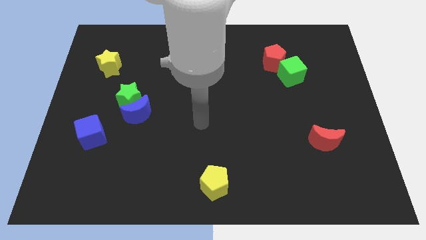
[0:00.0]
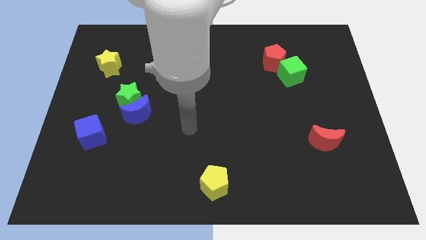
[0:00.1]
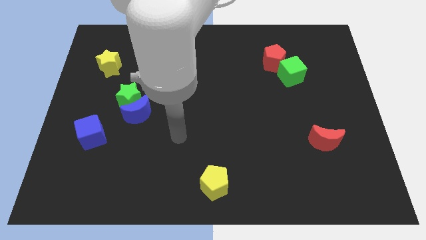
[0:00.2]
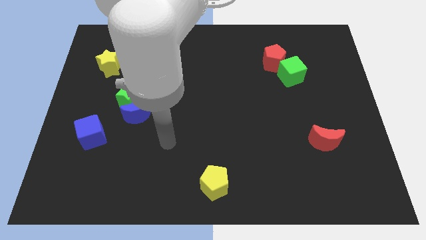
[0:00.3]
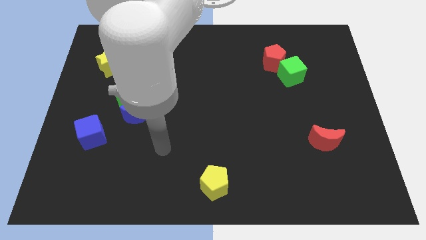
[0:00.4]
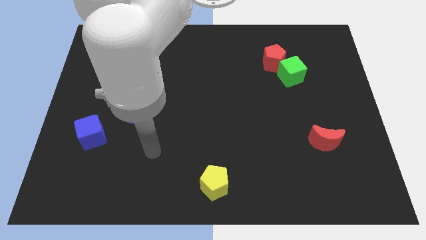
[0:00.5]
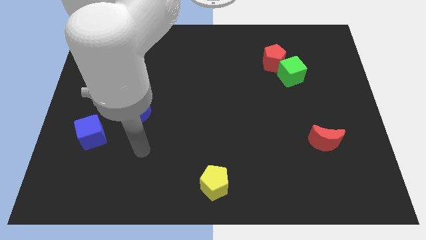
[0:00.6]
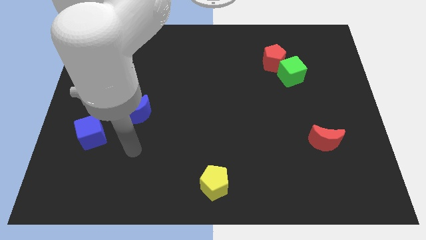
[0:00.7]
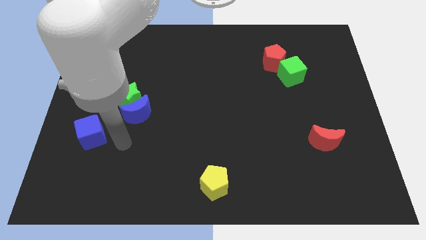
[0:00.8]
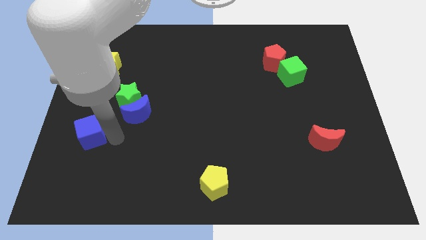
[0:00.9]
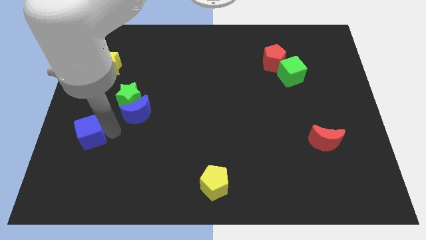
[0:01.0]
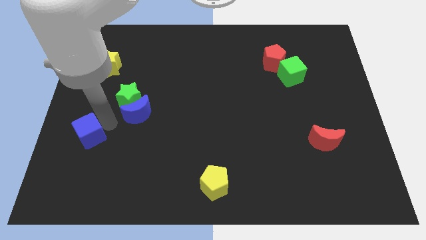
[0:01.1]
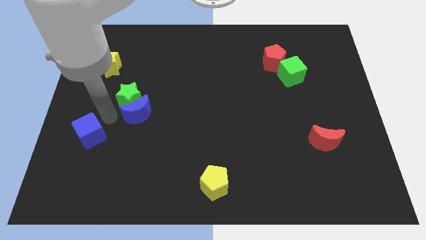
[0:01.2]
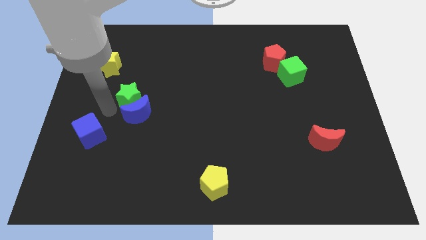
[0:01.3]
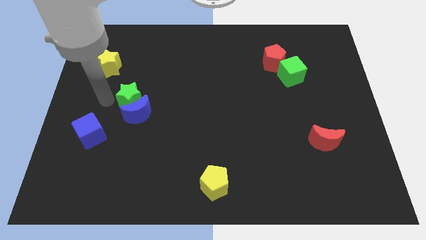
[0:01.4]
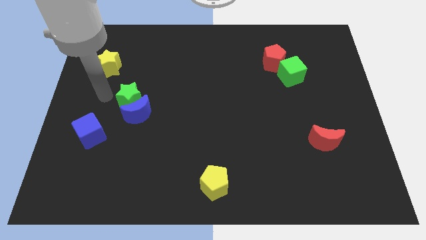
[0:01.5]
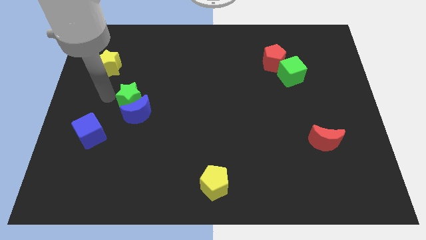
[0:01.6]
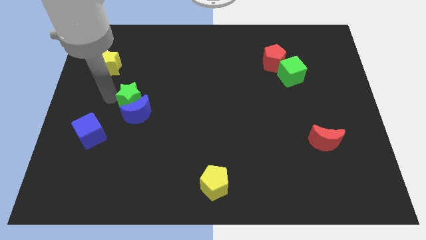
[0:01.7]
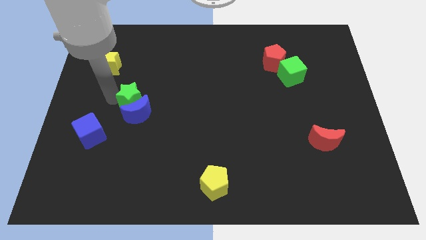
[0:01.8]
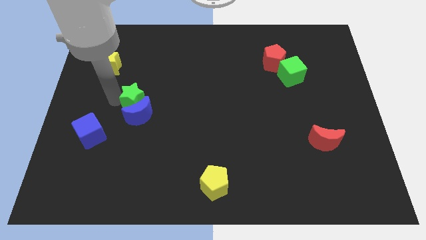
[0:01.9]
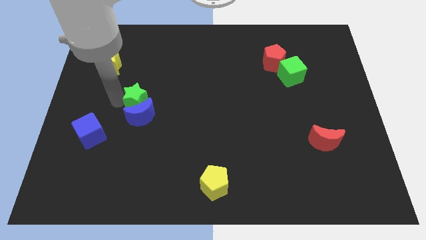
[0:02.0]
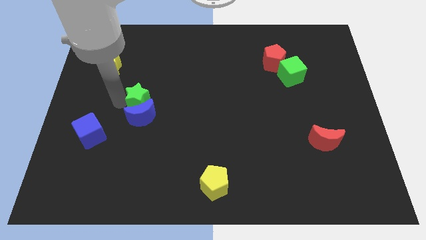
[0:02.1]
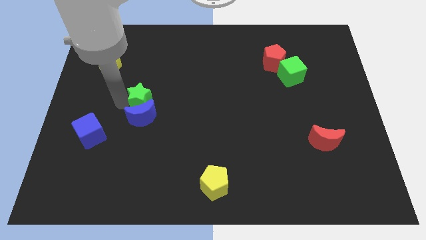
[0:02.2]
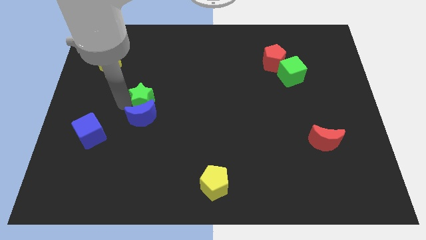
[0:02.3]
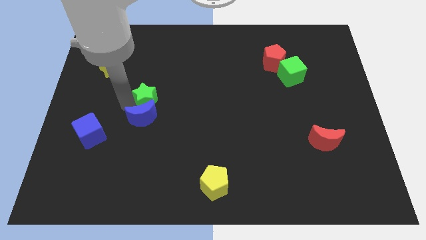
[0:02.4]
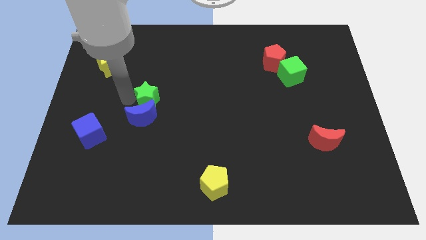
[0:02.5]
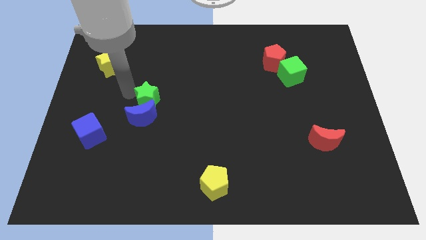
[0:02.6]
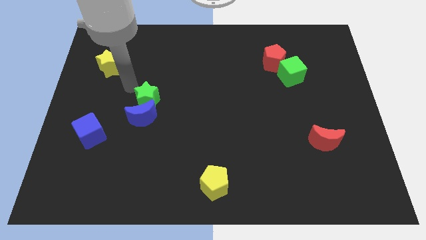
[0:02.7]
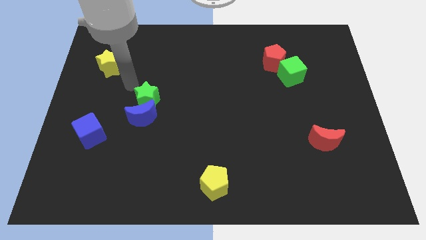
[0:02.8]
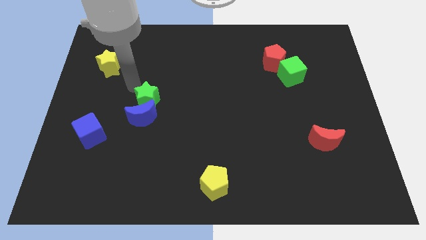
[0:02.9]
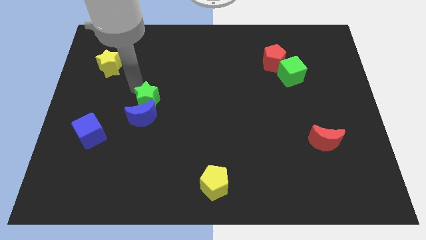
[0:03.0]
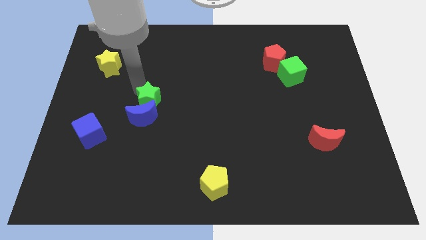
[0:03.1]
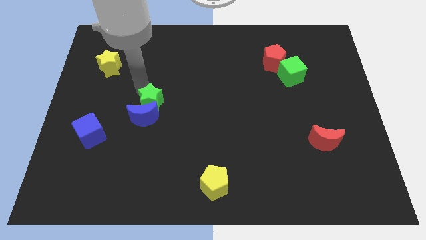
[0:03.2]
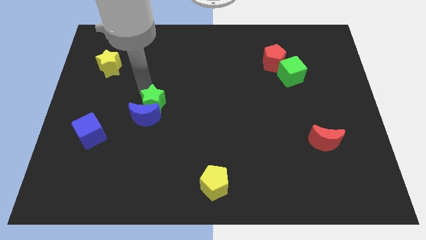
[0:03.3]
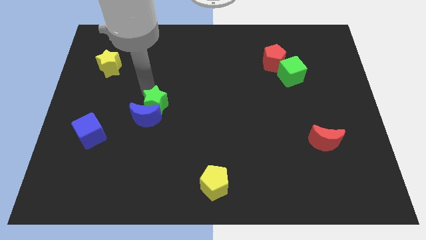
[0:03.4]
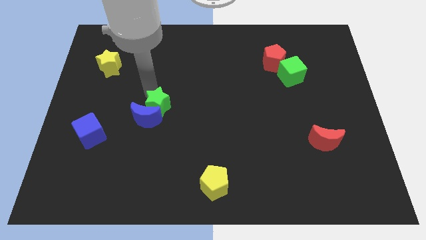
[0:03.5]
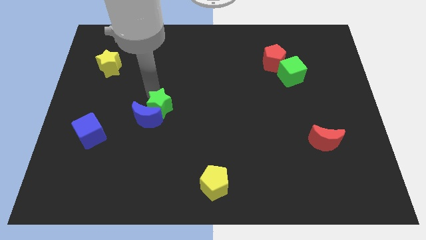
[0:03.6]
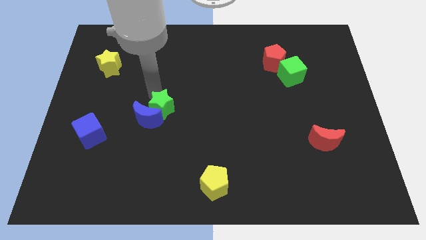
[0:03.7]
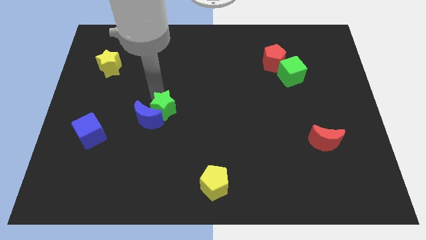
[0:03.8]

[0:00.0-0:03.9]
push the green star a little bit diagonally down and right

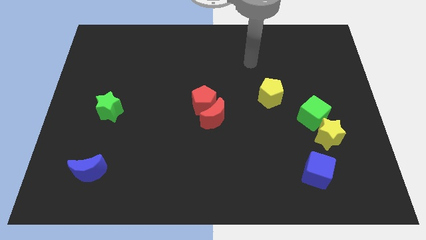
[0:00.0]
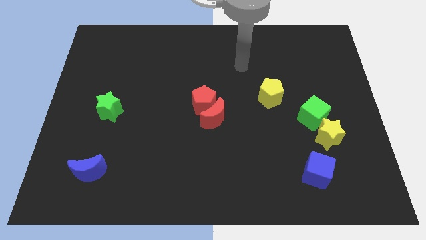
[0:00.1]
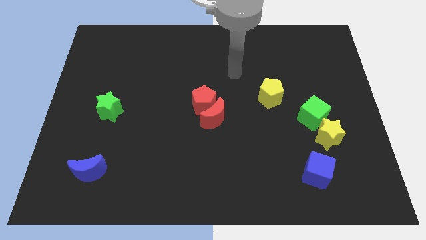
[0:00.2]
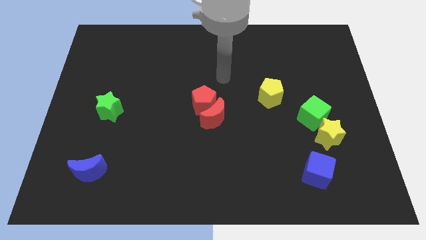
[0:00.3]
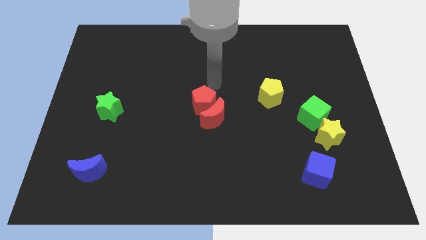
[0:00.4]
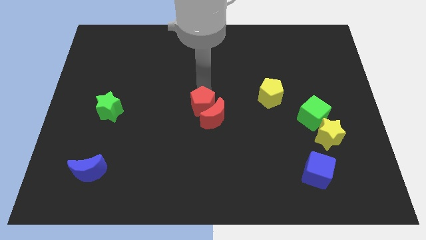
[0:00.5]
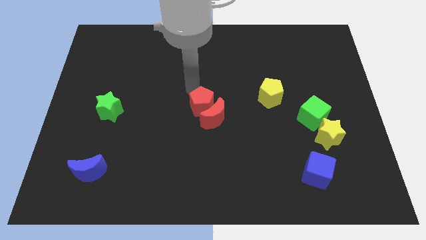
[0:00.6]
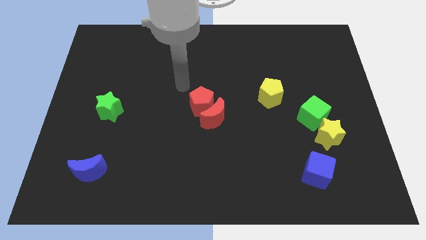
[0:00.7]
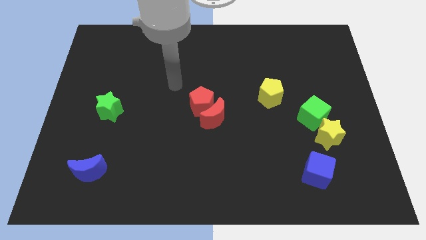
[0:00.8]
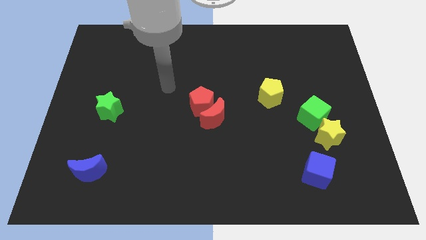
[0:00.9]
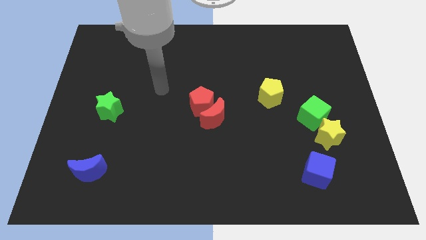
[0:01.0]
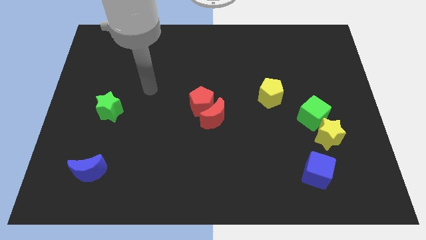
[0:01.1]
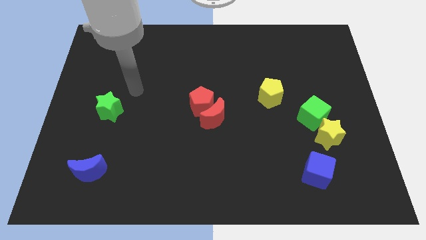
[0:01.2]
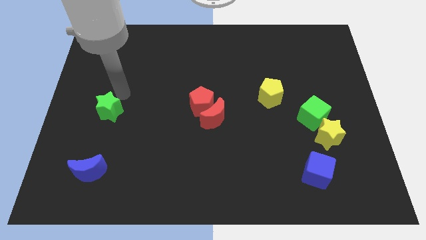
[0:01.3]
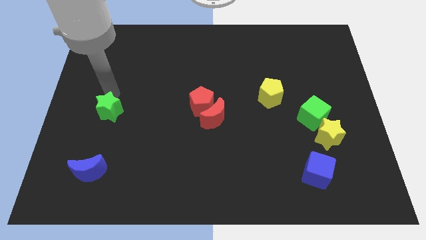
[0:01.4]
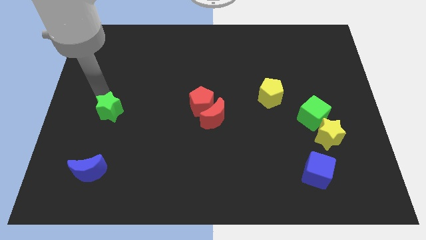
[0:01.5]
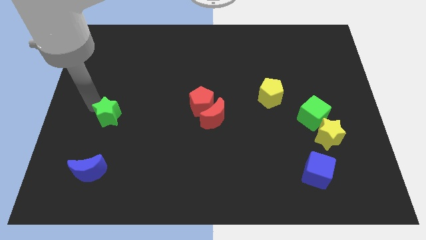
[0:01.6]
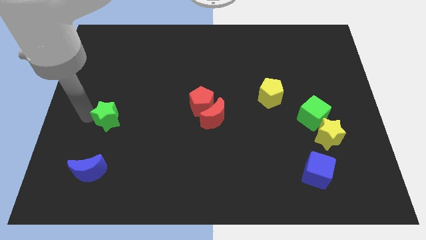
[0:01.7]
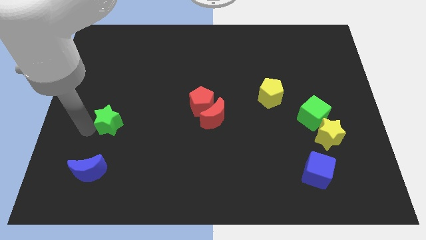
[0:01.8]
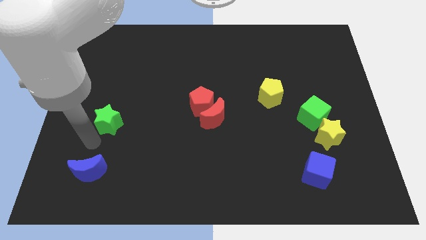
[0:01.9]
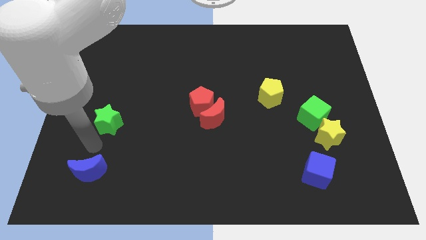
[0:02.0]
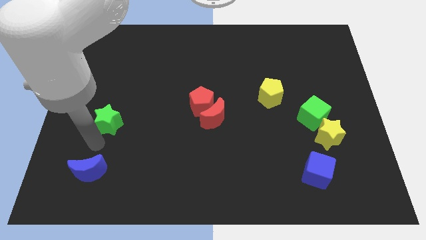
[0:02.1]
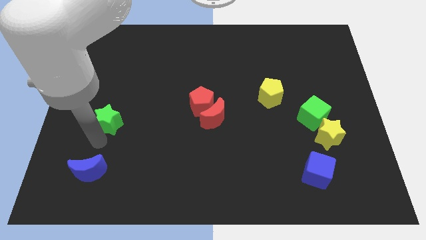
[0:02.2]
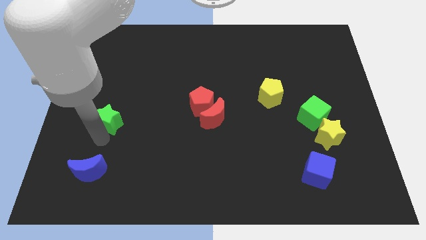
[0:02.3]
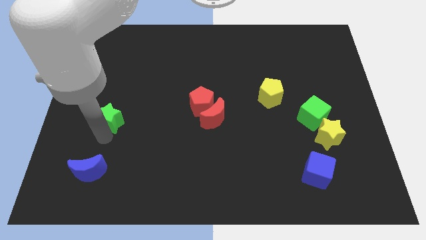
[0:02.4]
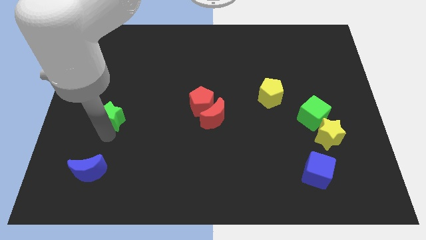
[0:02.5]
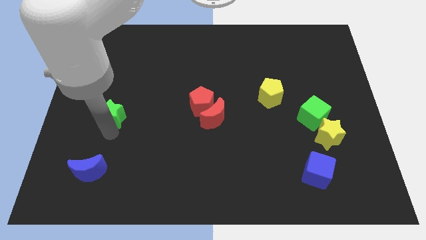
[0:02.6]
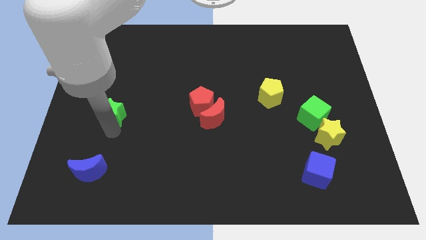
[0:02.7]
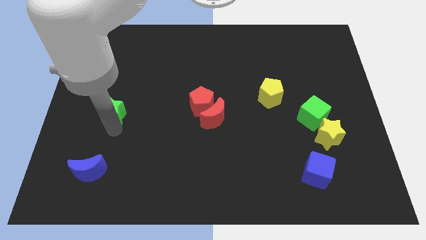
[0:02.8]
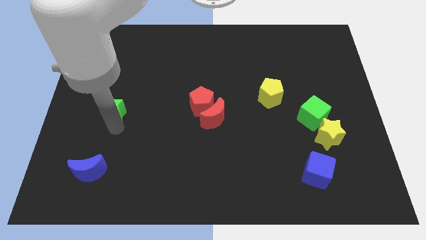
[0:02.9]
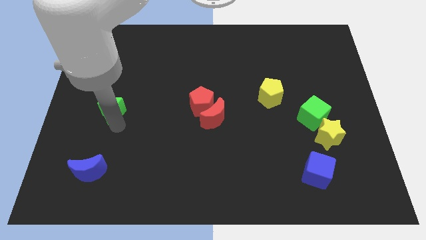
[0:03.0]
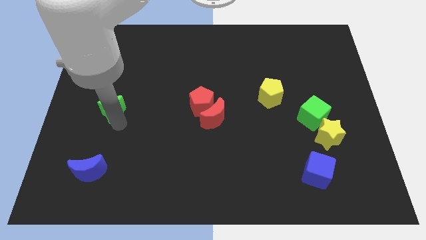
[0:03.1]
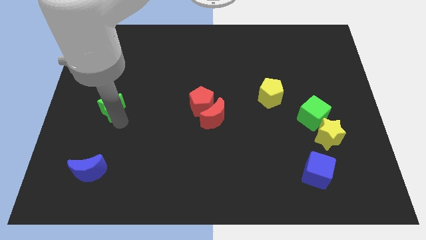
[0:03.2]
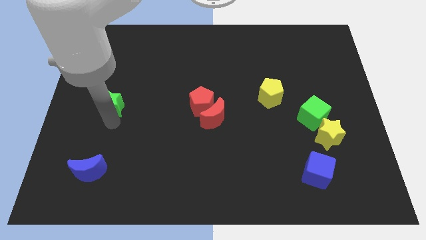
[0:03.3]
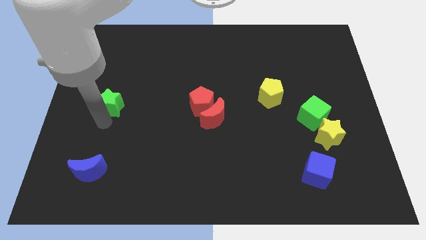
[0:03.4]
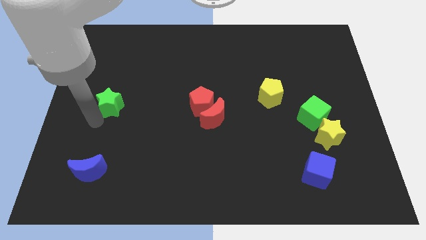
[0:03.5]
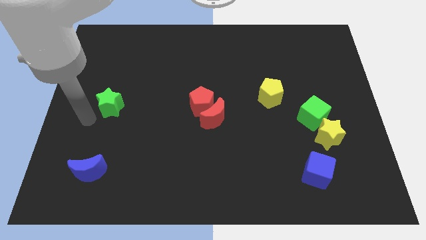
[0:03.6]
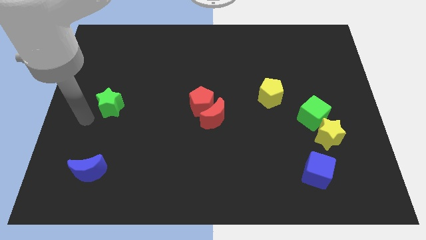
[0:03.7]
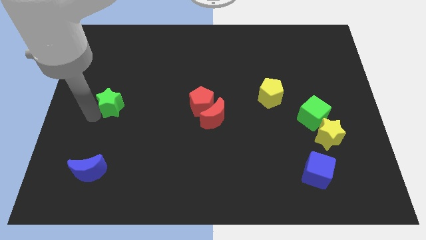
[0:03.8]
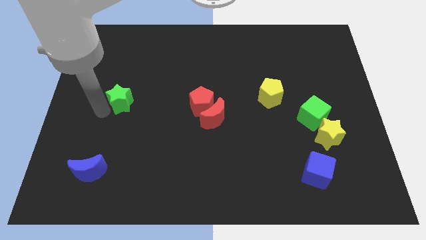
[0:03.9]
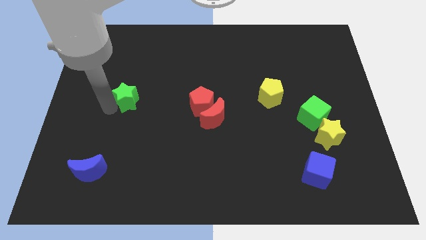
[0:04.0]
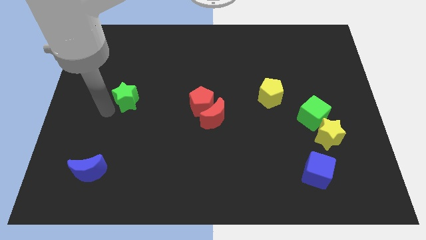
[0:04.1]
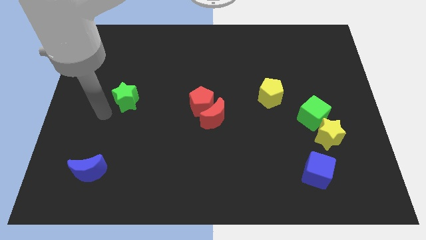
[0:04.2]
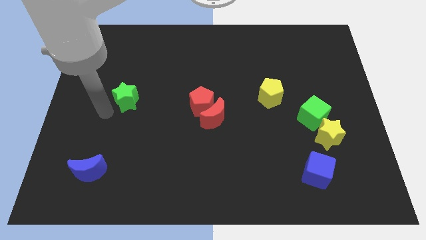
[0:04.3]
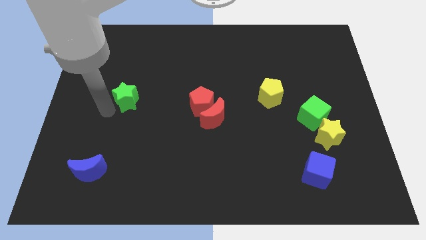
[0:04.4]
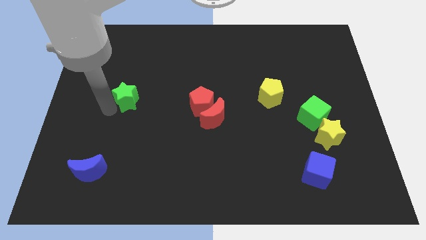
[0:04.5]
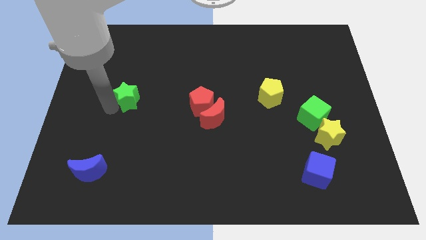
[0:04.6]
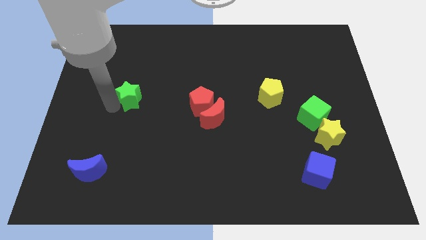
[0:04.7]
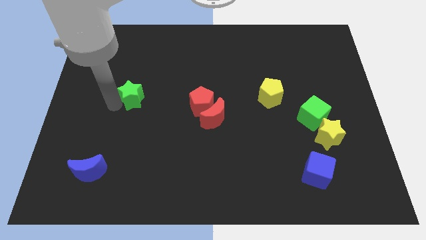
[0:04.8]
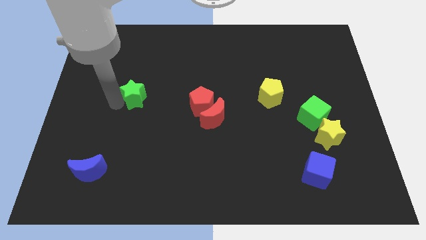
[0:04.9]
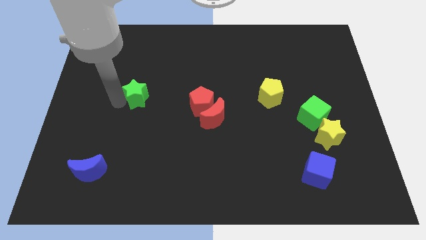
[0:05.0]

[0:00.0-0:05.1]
slightly push the green star up and to the right
